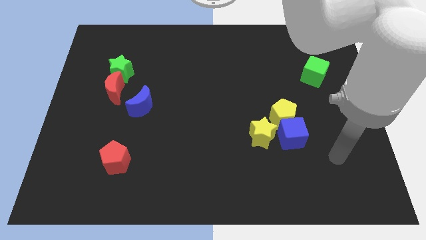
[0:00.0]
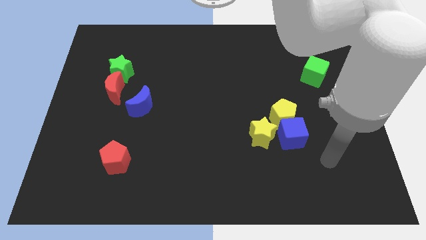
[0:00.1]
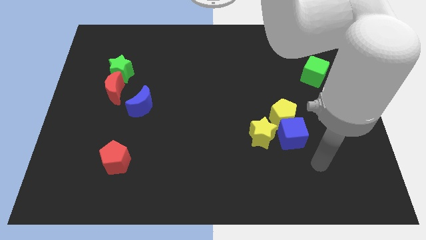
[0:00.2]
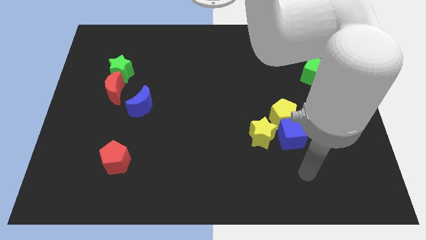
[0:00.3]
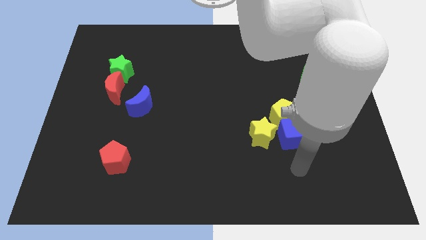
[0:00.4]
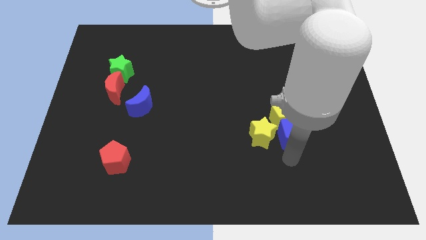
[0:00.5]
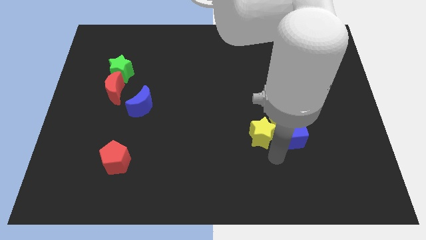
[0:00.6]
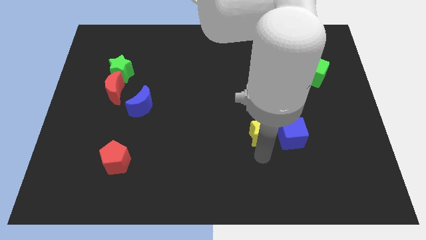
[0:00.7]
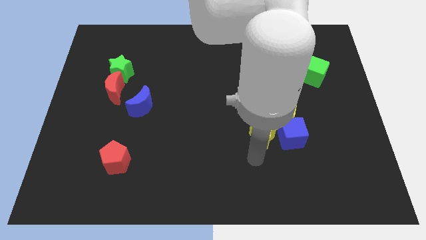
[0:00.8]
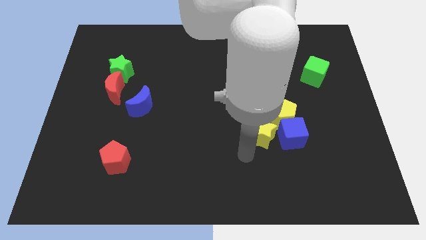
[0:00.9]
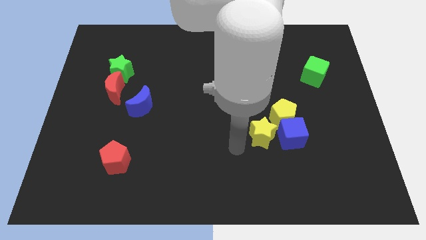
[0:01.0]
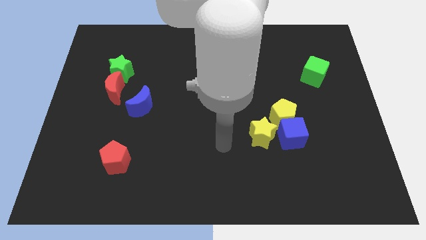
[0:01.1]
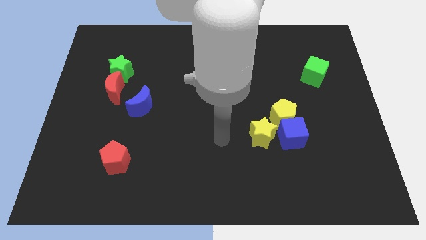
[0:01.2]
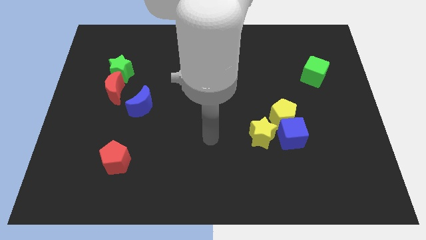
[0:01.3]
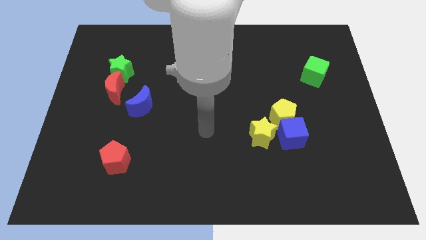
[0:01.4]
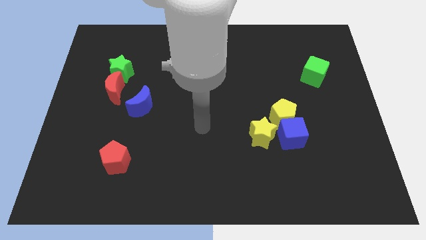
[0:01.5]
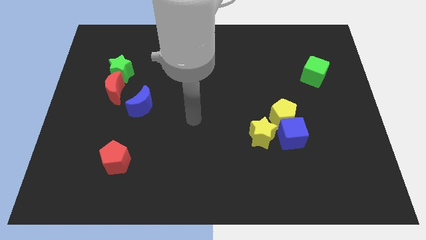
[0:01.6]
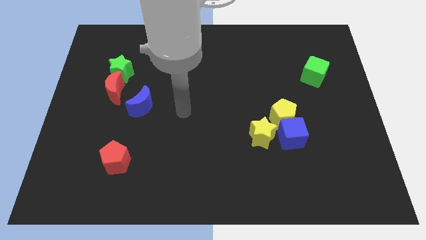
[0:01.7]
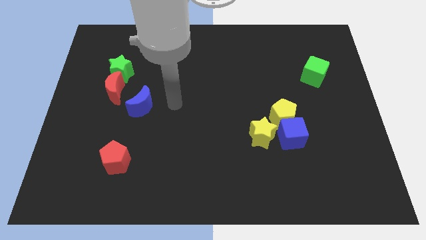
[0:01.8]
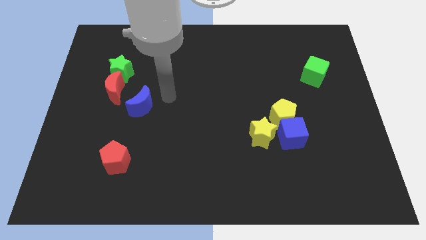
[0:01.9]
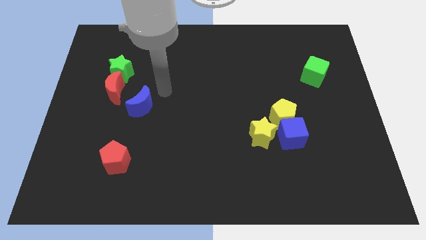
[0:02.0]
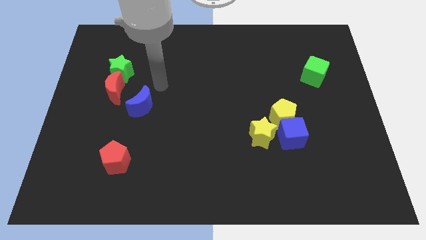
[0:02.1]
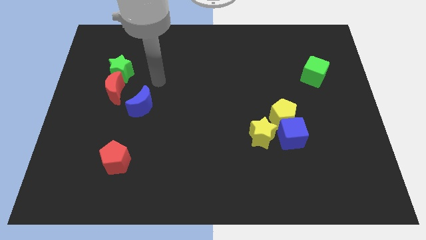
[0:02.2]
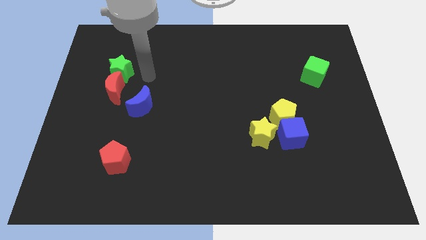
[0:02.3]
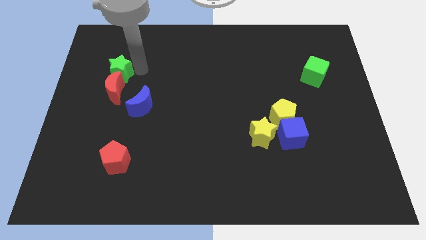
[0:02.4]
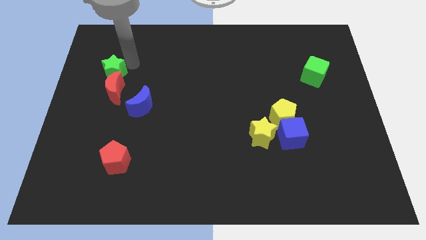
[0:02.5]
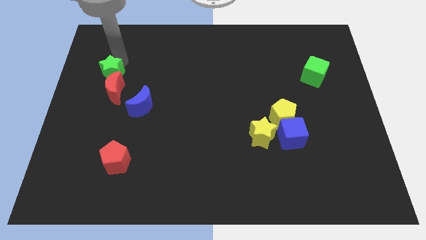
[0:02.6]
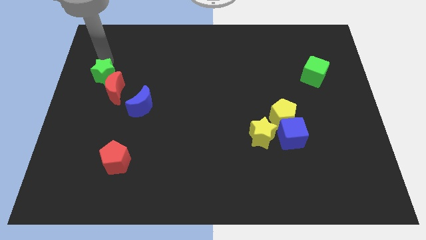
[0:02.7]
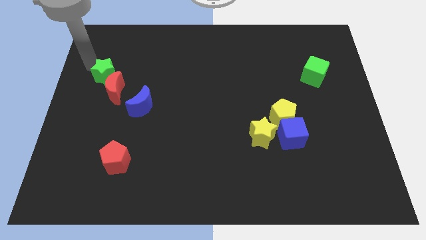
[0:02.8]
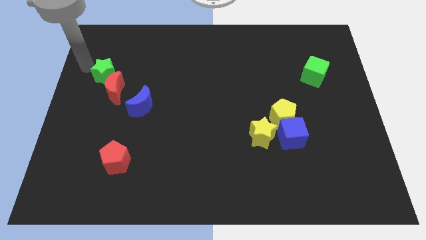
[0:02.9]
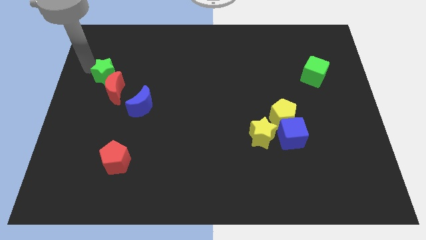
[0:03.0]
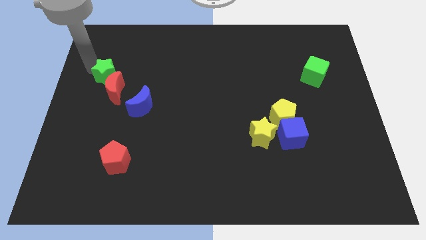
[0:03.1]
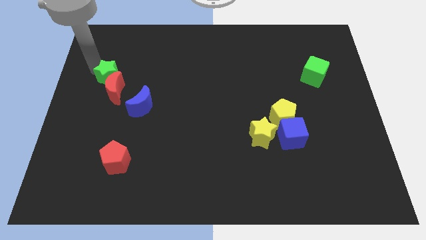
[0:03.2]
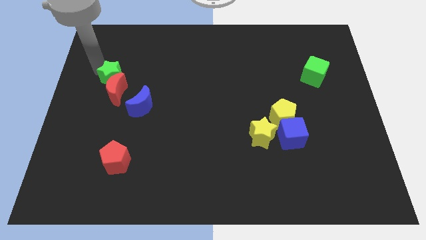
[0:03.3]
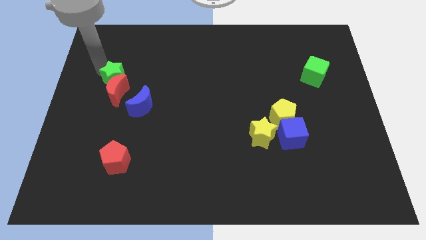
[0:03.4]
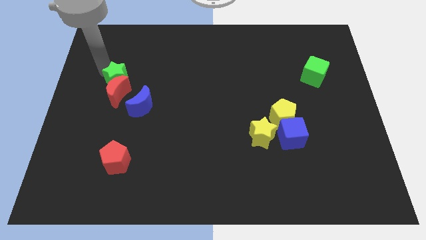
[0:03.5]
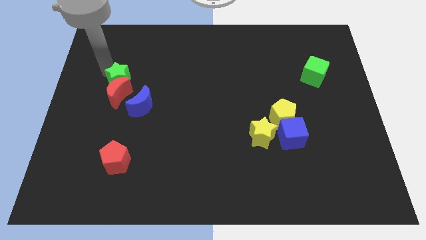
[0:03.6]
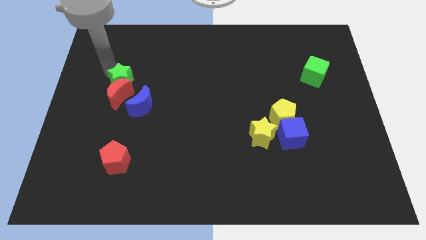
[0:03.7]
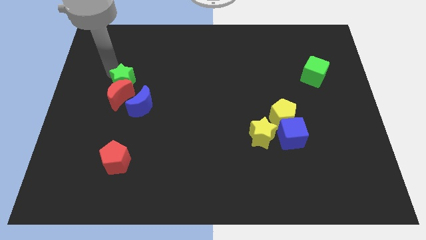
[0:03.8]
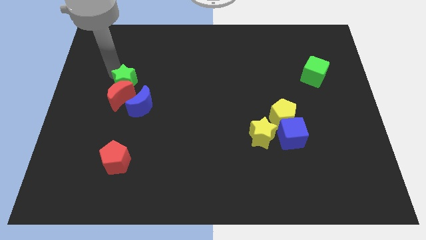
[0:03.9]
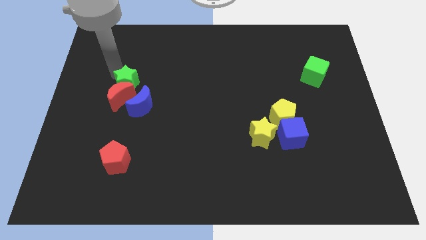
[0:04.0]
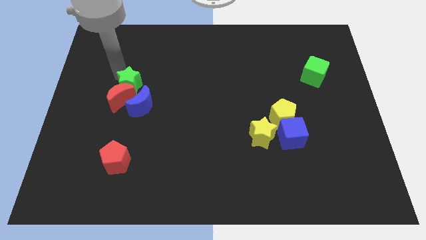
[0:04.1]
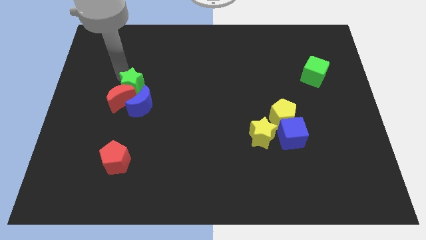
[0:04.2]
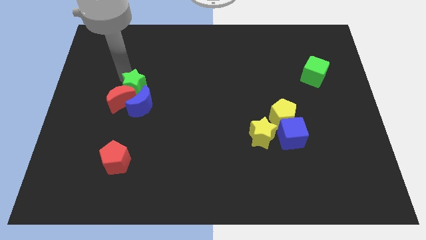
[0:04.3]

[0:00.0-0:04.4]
push the green star towards the blue moon

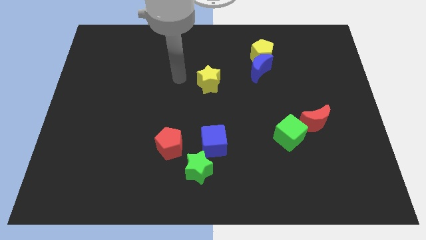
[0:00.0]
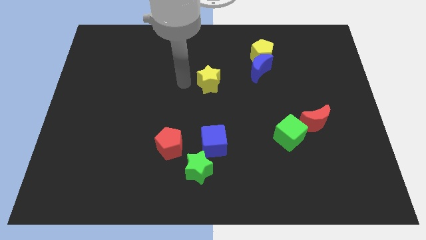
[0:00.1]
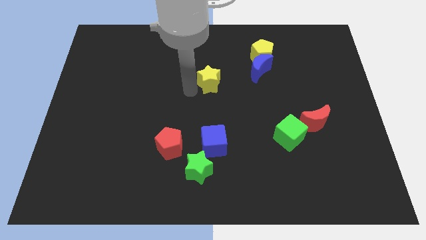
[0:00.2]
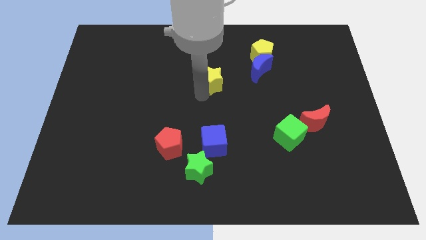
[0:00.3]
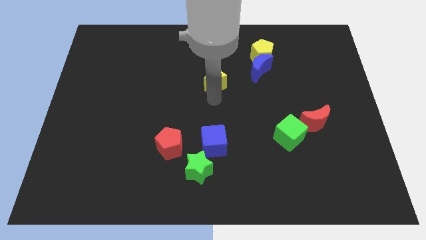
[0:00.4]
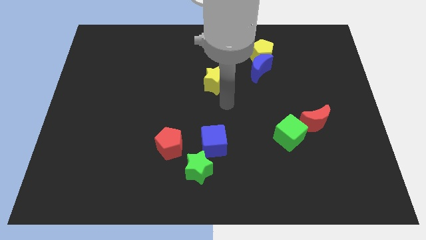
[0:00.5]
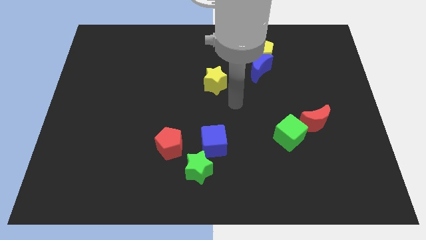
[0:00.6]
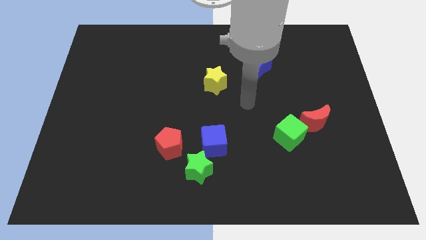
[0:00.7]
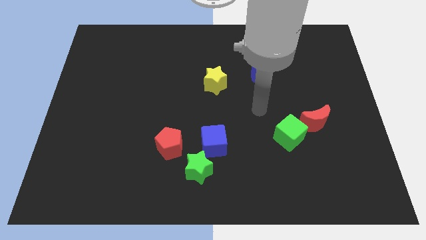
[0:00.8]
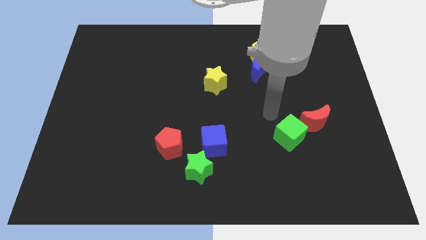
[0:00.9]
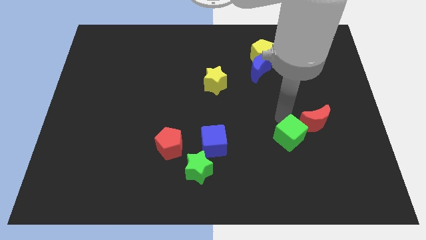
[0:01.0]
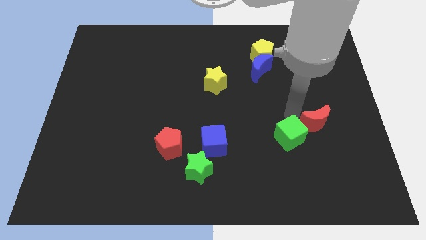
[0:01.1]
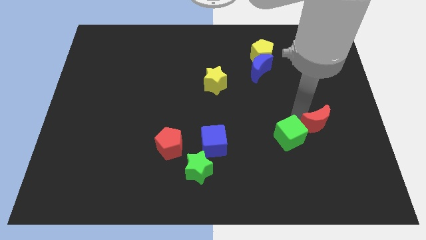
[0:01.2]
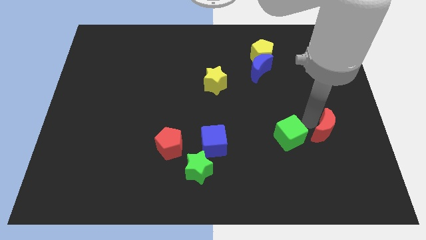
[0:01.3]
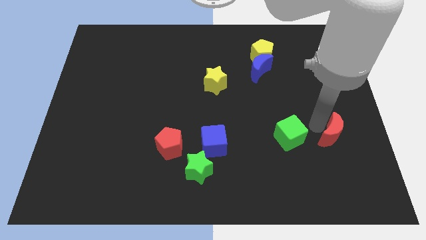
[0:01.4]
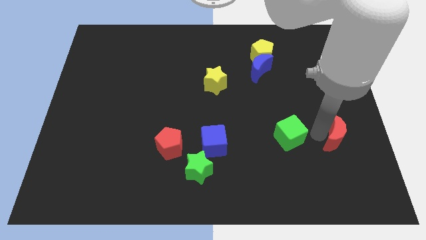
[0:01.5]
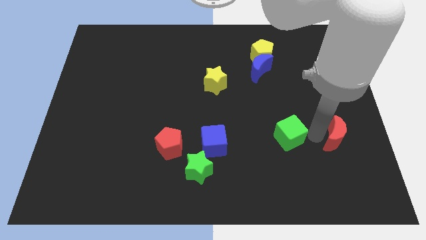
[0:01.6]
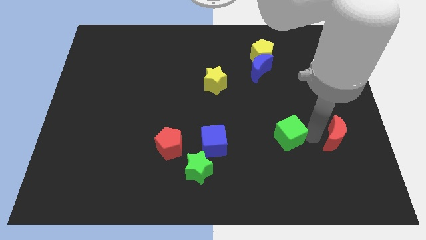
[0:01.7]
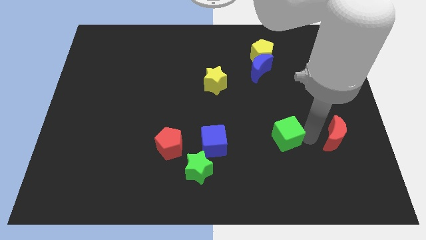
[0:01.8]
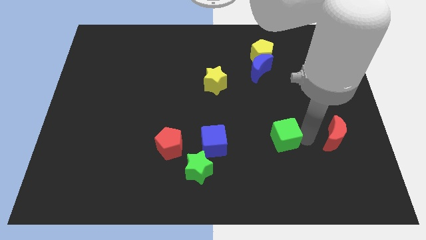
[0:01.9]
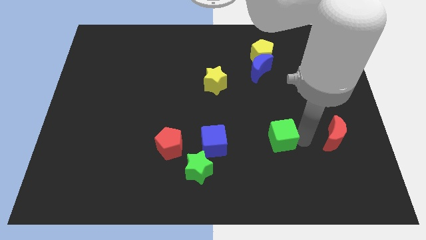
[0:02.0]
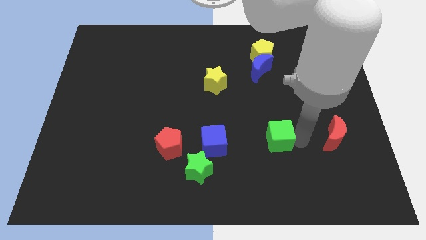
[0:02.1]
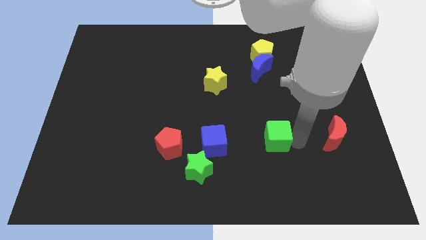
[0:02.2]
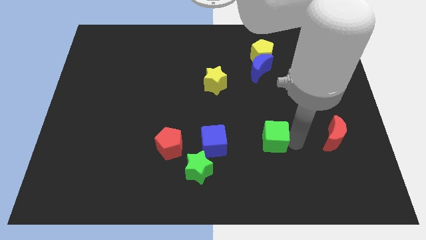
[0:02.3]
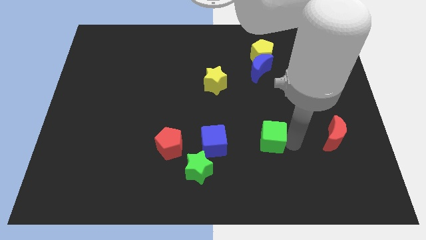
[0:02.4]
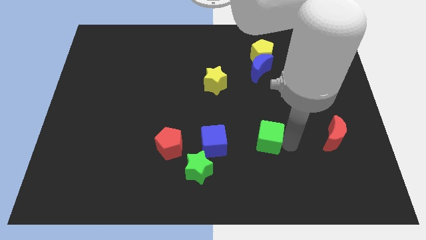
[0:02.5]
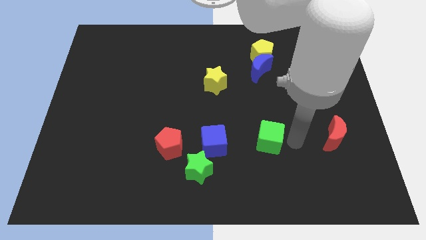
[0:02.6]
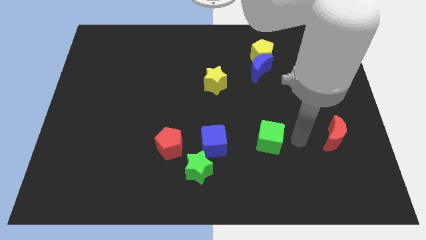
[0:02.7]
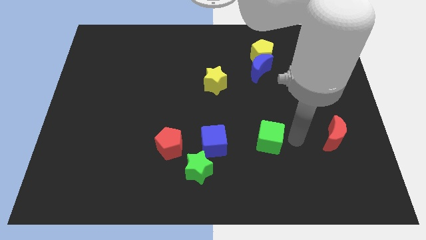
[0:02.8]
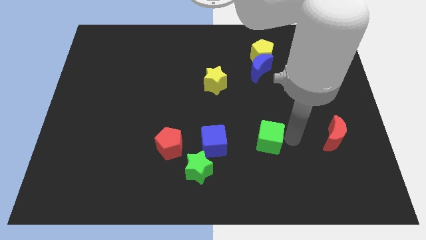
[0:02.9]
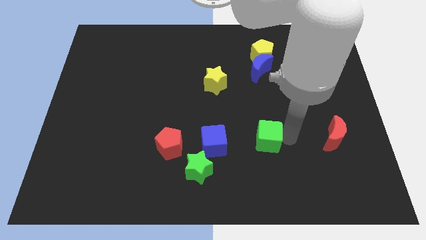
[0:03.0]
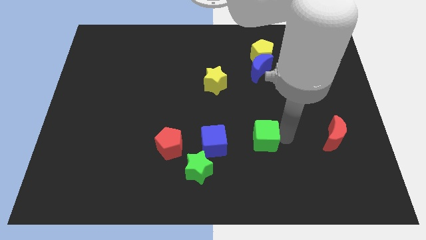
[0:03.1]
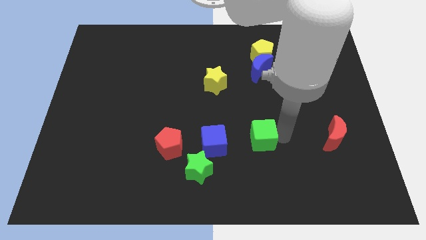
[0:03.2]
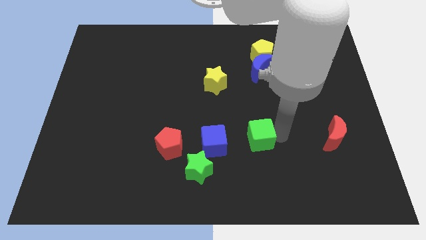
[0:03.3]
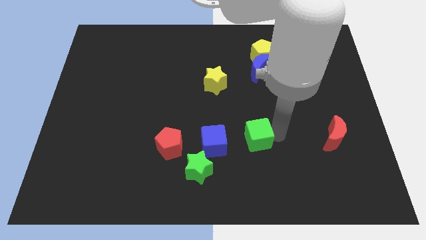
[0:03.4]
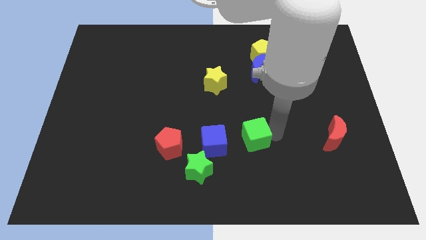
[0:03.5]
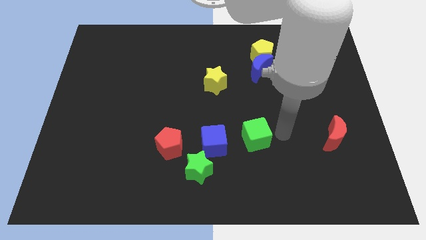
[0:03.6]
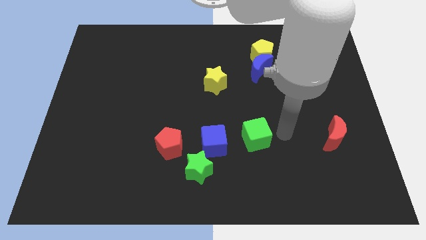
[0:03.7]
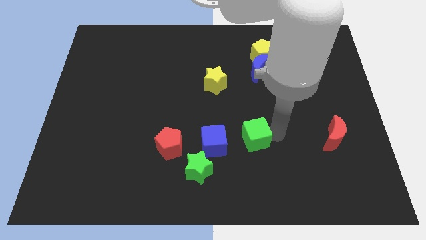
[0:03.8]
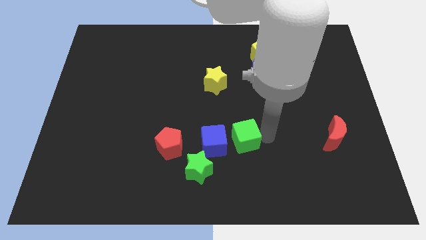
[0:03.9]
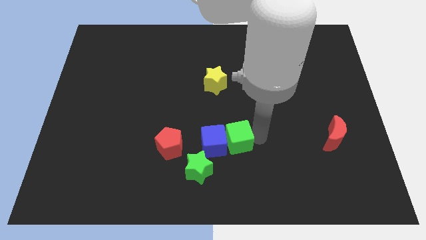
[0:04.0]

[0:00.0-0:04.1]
slide the green cube towards the blue cube
